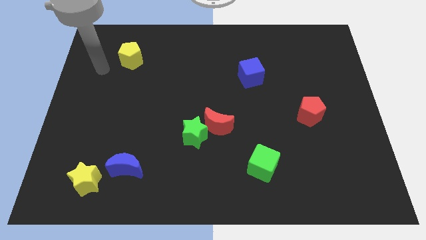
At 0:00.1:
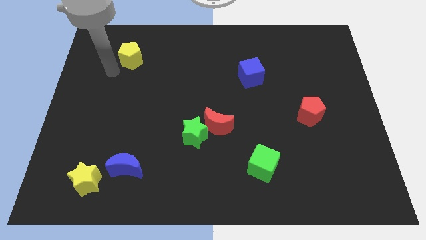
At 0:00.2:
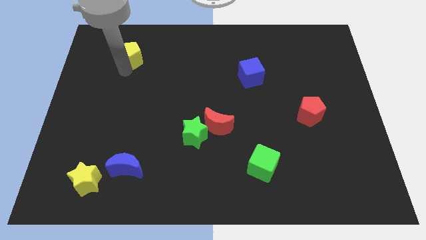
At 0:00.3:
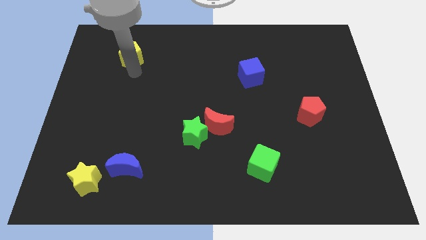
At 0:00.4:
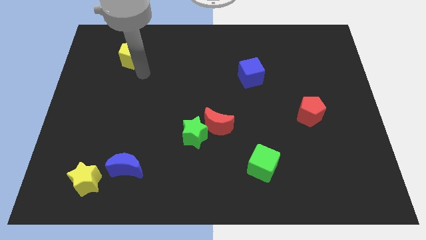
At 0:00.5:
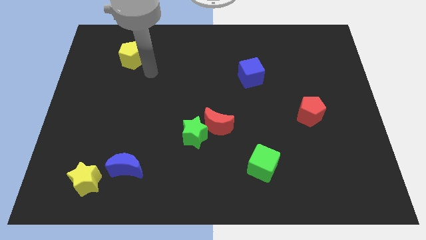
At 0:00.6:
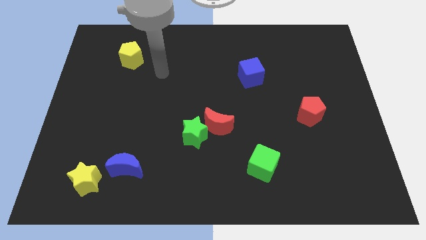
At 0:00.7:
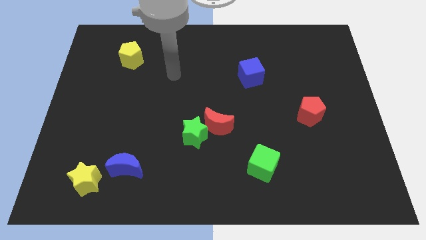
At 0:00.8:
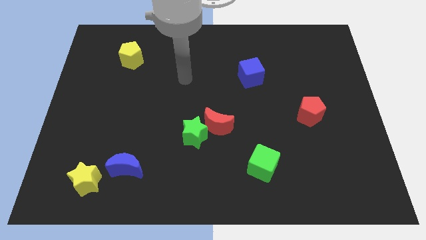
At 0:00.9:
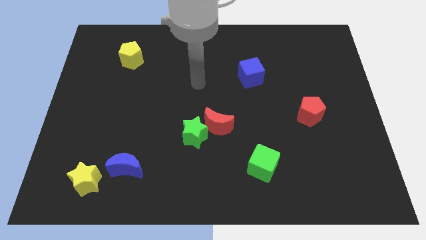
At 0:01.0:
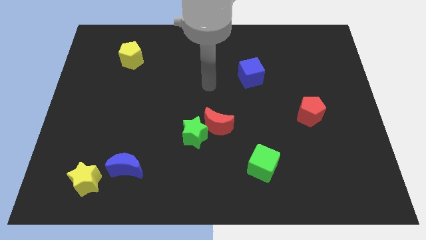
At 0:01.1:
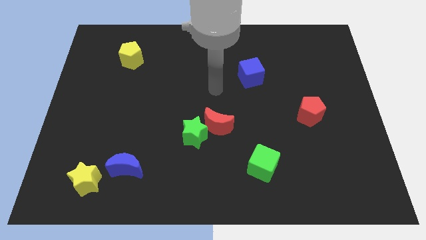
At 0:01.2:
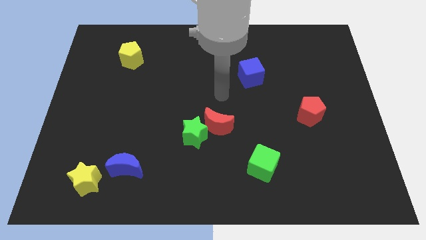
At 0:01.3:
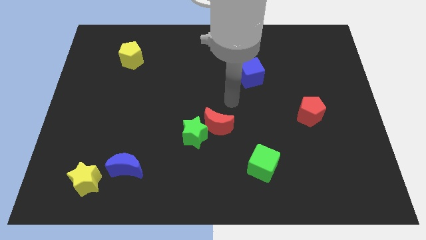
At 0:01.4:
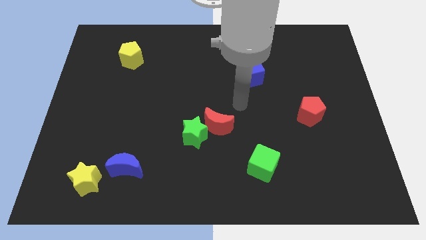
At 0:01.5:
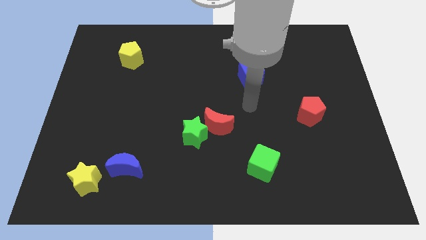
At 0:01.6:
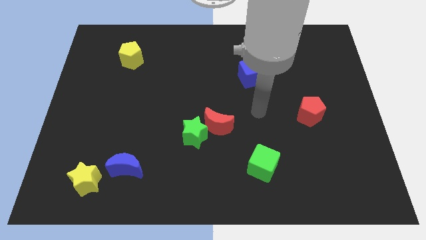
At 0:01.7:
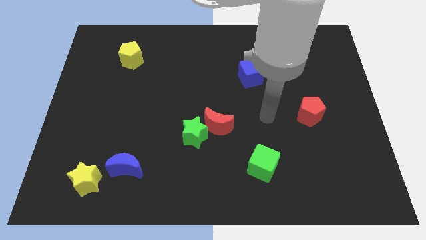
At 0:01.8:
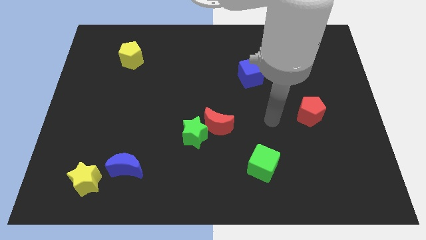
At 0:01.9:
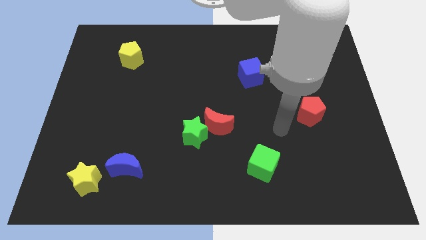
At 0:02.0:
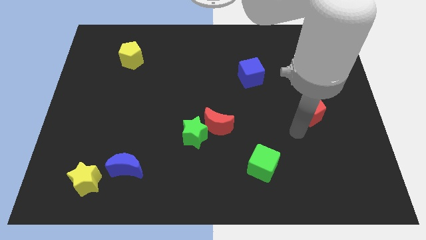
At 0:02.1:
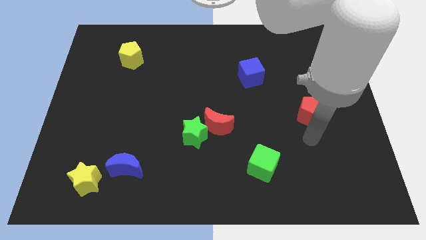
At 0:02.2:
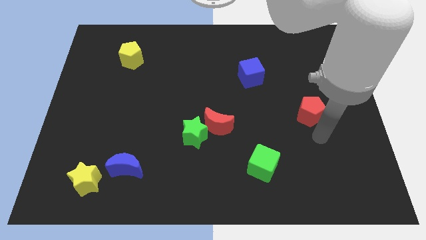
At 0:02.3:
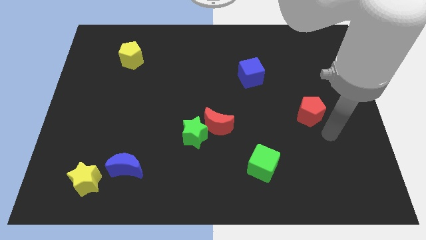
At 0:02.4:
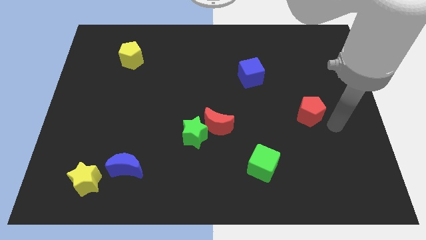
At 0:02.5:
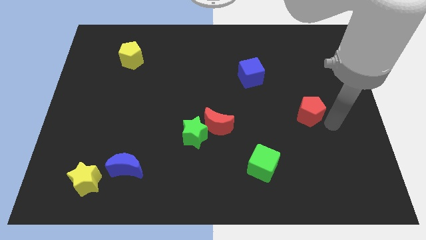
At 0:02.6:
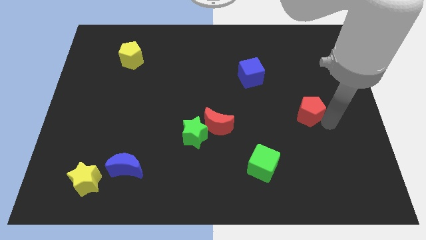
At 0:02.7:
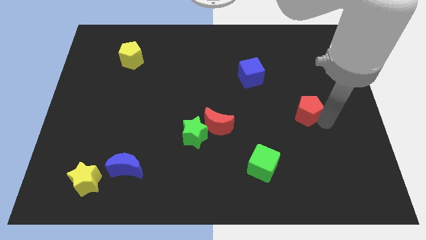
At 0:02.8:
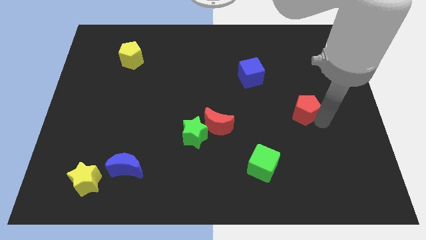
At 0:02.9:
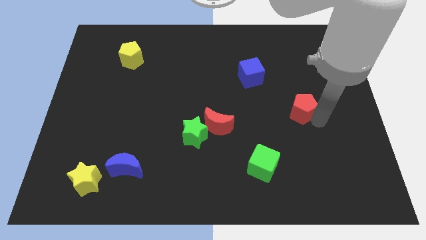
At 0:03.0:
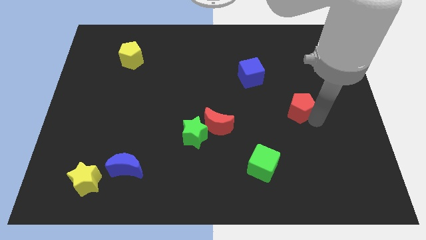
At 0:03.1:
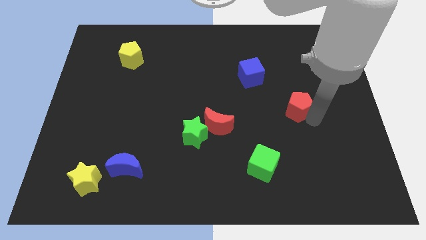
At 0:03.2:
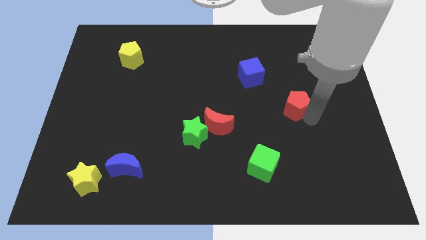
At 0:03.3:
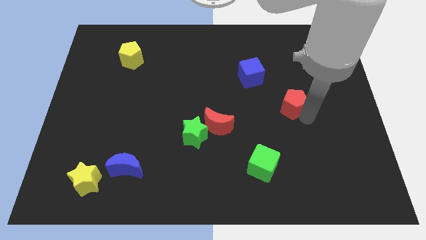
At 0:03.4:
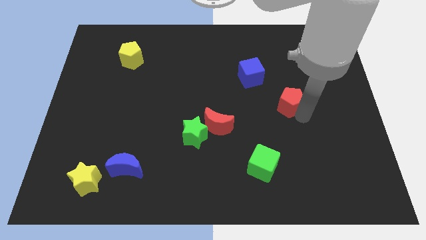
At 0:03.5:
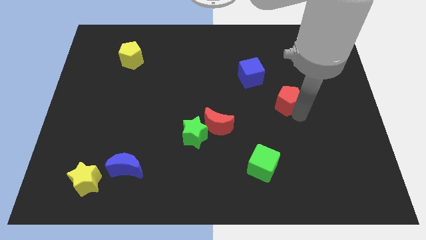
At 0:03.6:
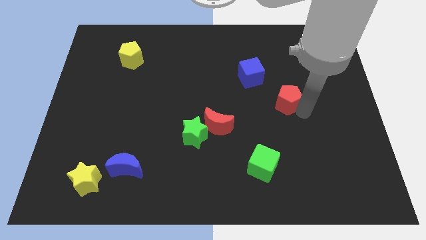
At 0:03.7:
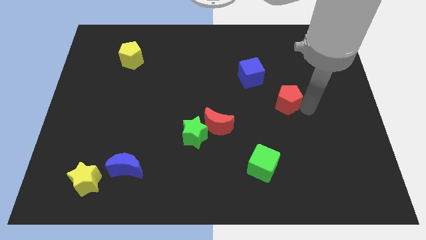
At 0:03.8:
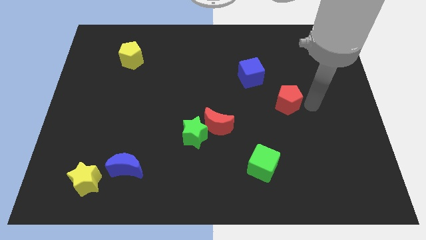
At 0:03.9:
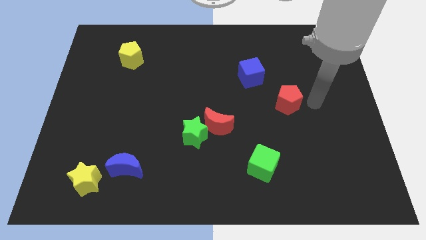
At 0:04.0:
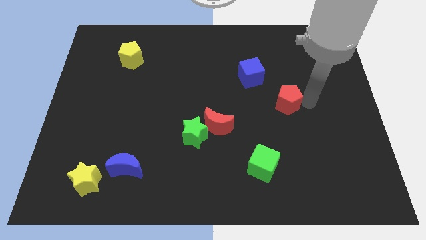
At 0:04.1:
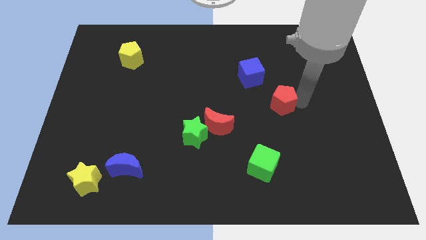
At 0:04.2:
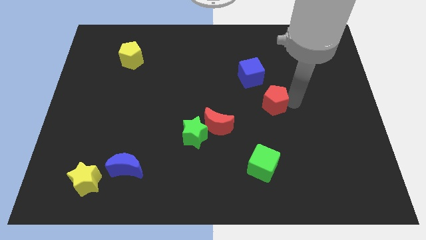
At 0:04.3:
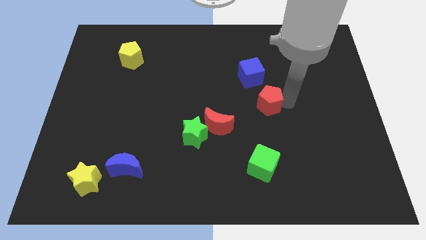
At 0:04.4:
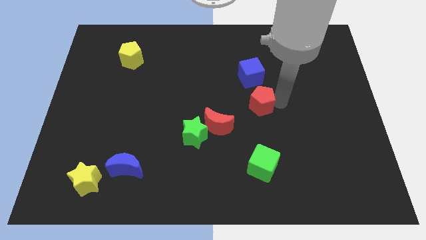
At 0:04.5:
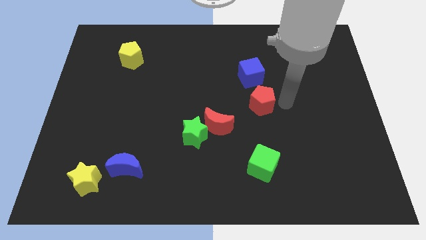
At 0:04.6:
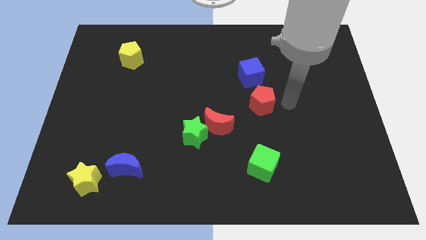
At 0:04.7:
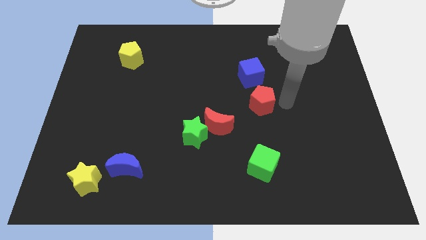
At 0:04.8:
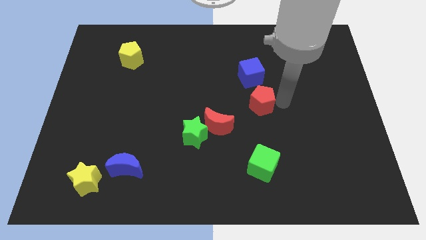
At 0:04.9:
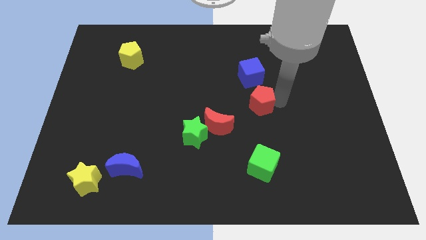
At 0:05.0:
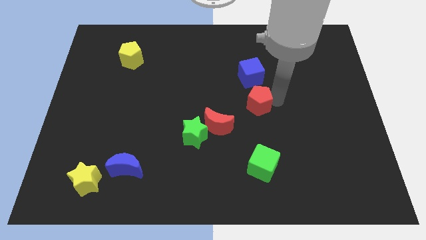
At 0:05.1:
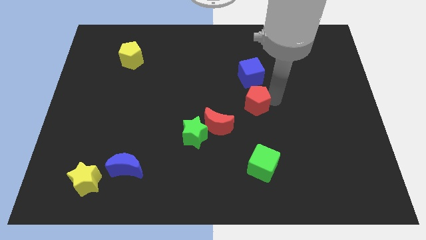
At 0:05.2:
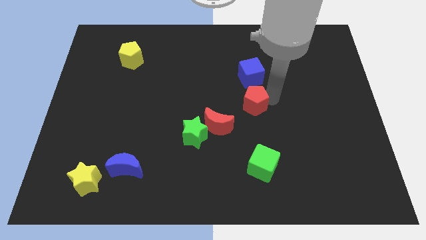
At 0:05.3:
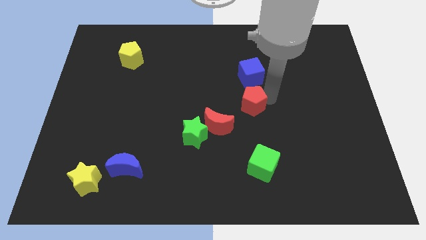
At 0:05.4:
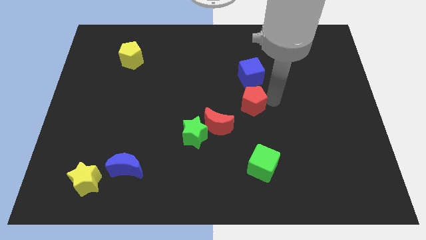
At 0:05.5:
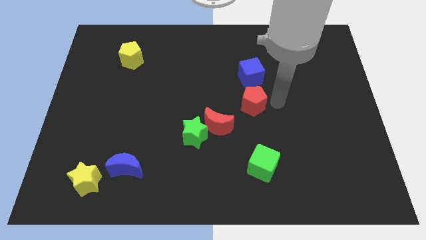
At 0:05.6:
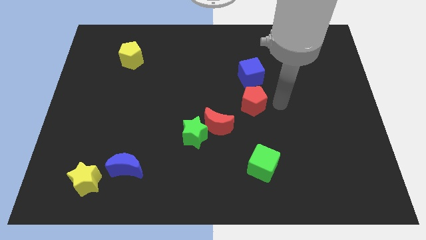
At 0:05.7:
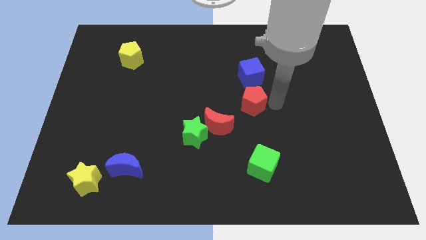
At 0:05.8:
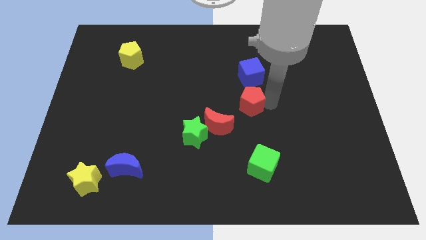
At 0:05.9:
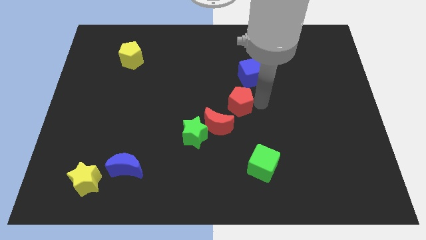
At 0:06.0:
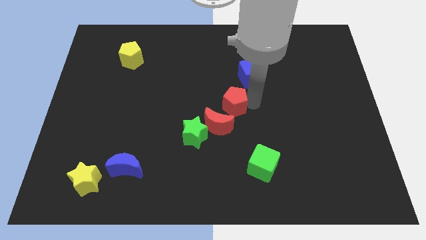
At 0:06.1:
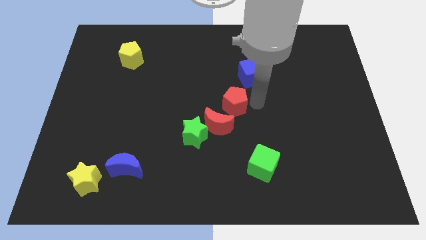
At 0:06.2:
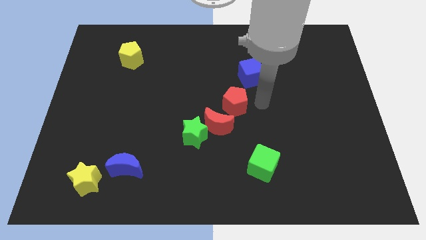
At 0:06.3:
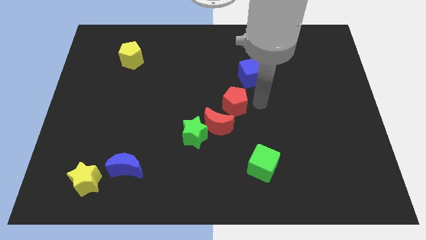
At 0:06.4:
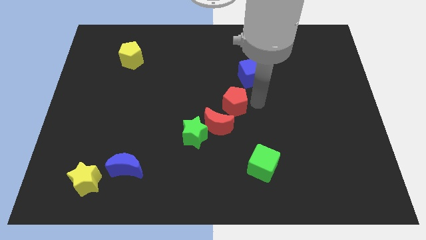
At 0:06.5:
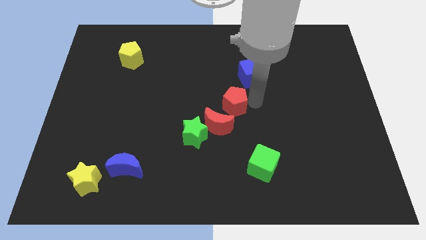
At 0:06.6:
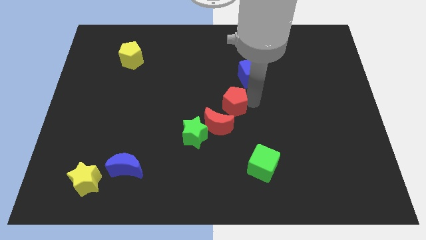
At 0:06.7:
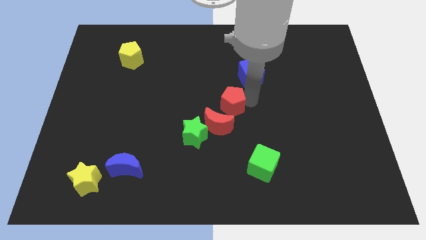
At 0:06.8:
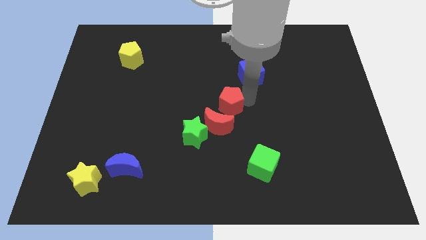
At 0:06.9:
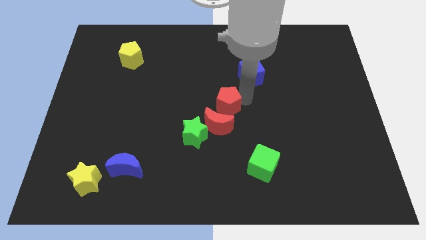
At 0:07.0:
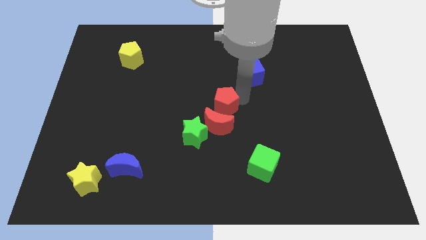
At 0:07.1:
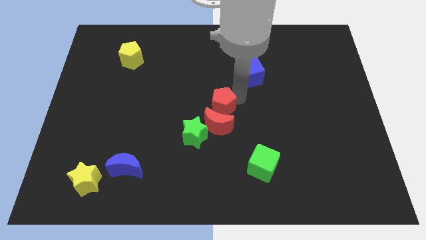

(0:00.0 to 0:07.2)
move the red pentagon to the left

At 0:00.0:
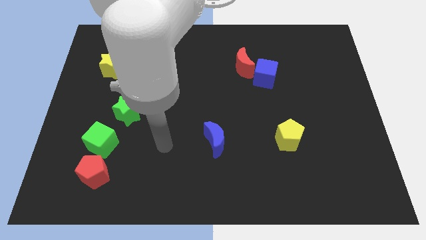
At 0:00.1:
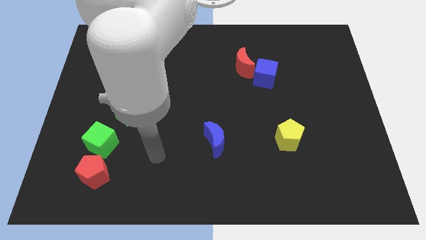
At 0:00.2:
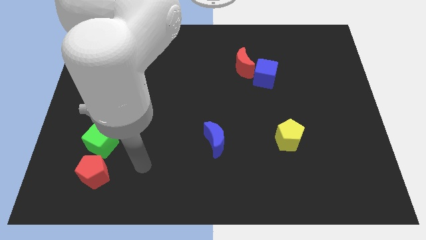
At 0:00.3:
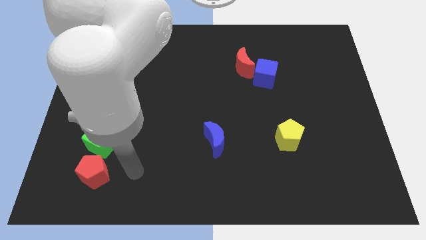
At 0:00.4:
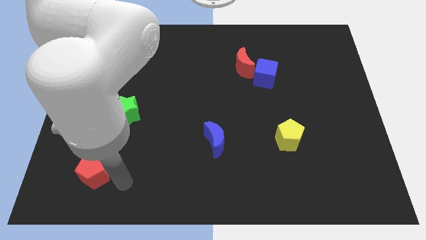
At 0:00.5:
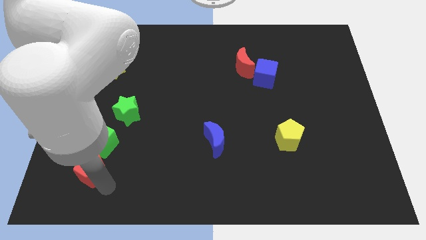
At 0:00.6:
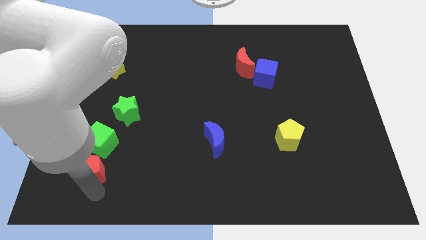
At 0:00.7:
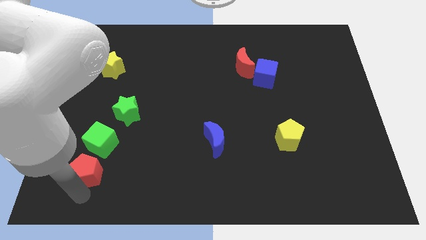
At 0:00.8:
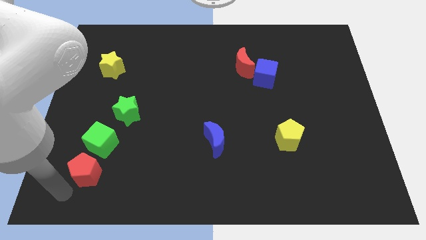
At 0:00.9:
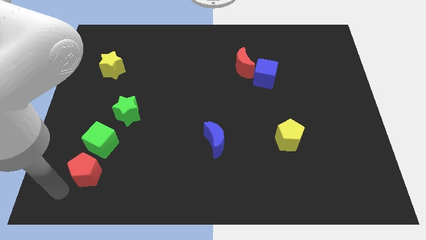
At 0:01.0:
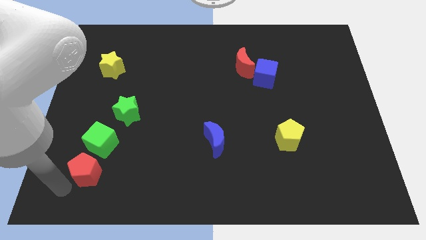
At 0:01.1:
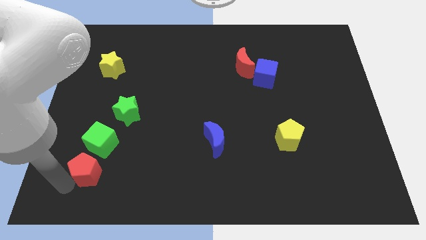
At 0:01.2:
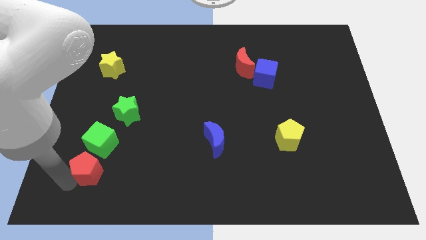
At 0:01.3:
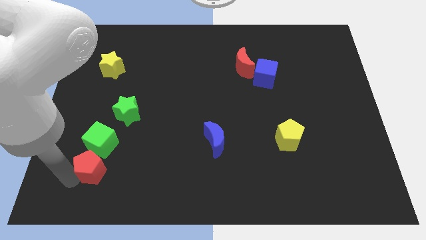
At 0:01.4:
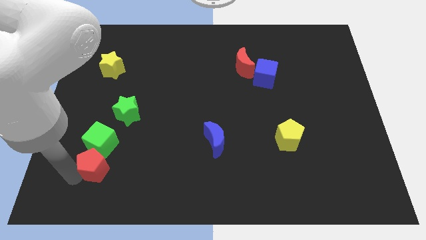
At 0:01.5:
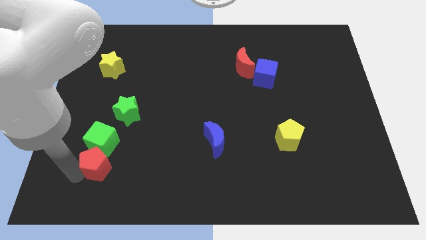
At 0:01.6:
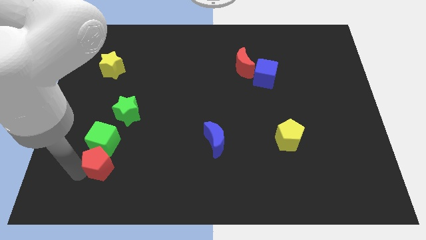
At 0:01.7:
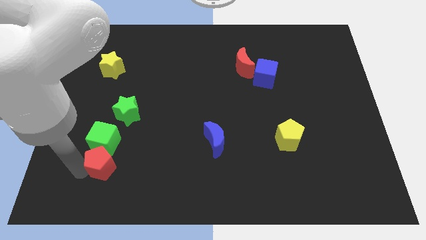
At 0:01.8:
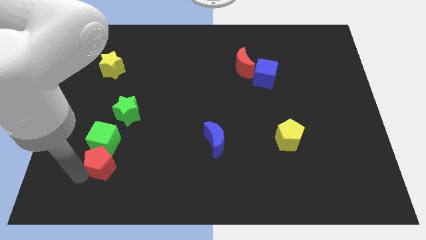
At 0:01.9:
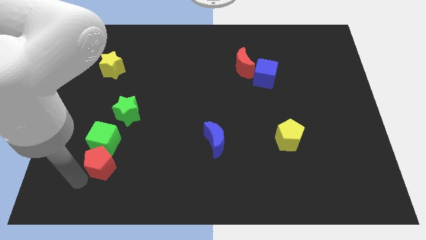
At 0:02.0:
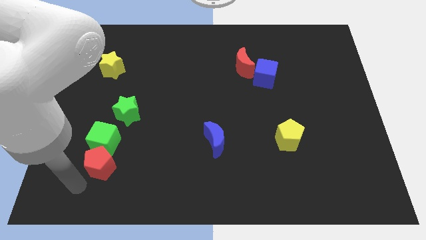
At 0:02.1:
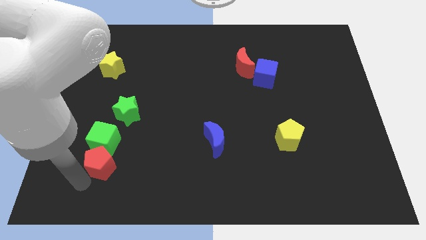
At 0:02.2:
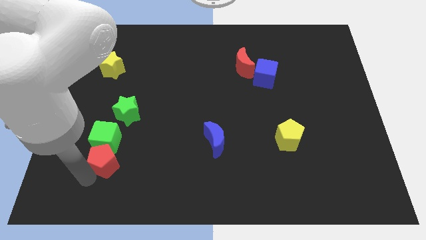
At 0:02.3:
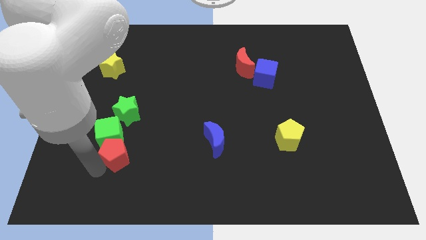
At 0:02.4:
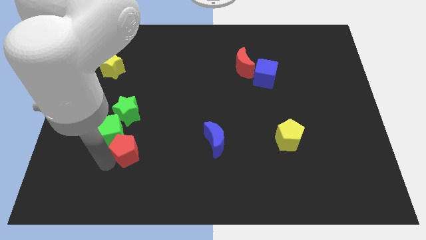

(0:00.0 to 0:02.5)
move the red pentagon a bit up and to the right diagonally
